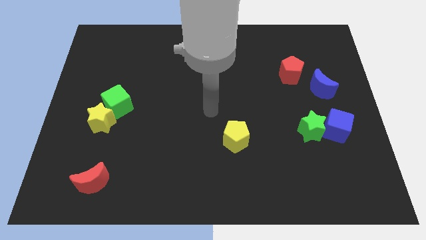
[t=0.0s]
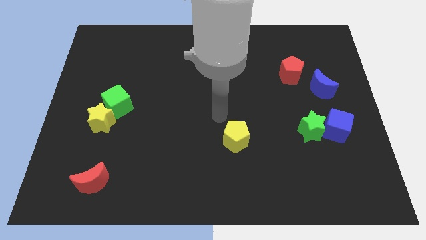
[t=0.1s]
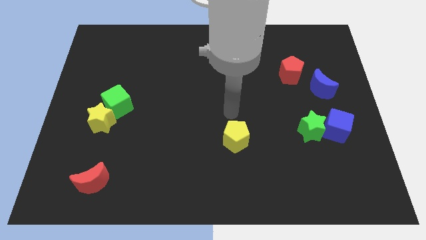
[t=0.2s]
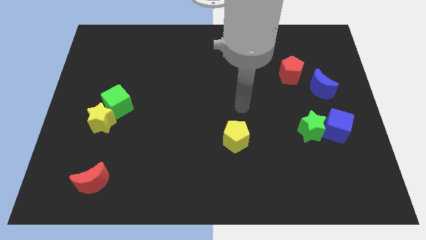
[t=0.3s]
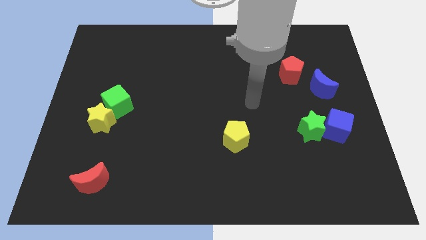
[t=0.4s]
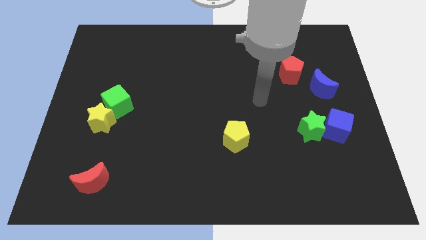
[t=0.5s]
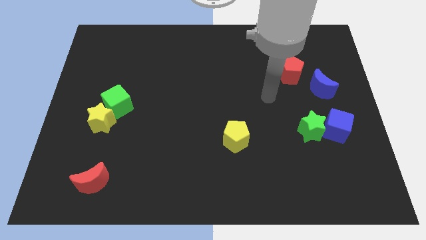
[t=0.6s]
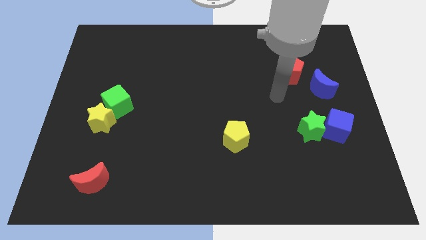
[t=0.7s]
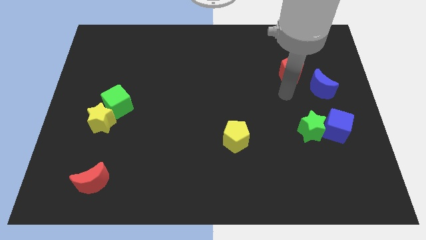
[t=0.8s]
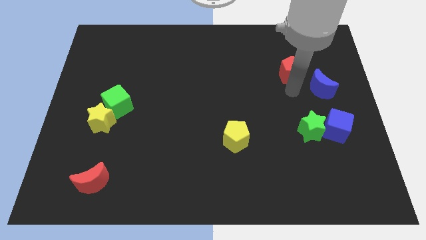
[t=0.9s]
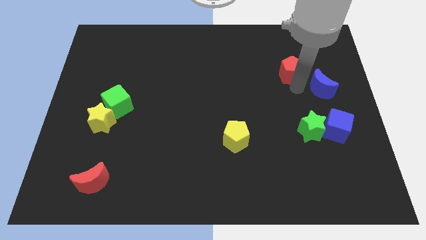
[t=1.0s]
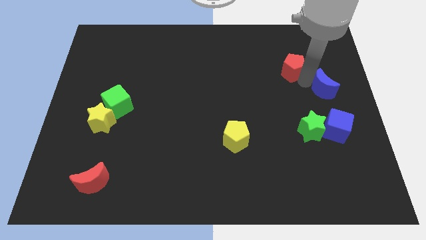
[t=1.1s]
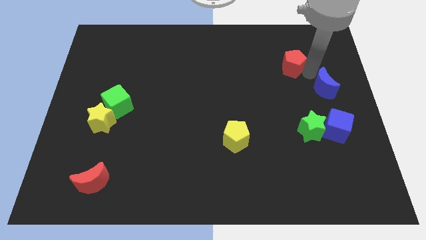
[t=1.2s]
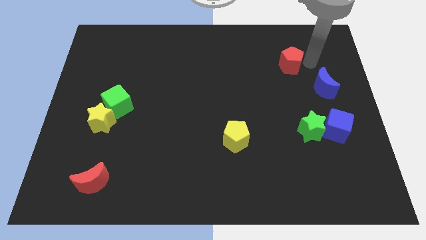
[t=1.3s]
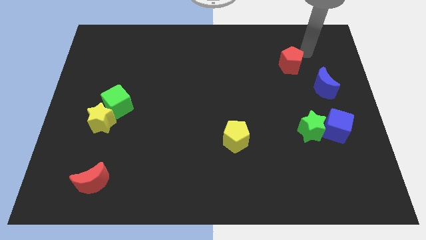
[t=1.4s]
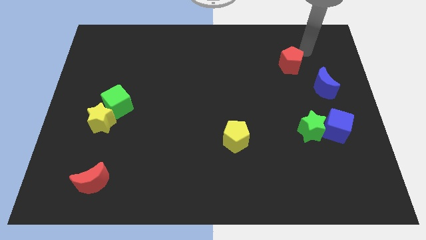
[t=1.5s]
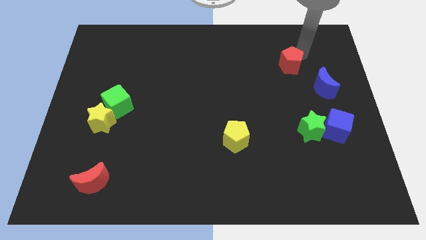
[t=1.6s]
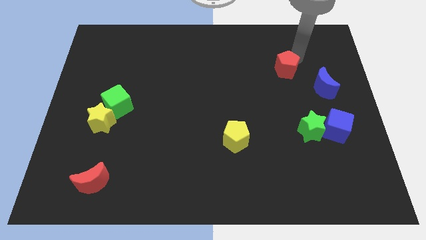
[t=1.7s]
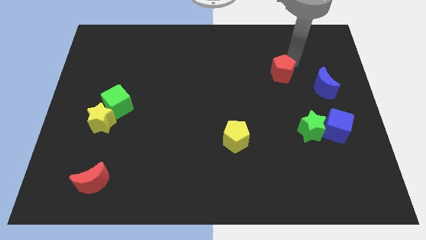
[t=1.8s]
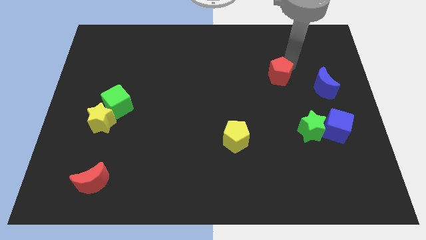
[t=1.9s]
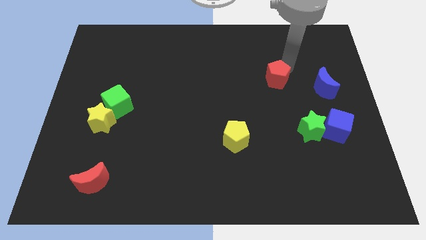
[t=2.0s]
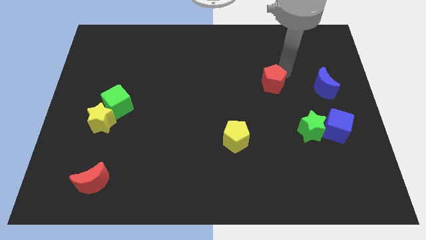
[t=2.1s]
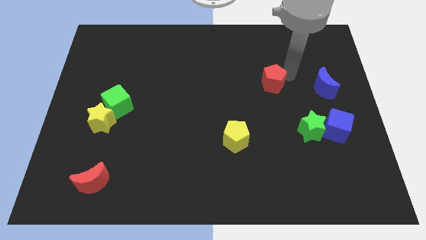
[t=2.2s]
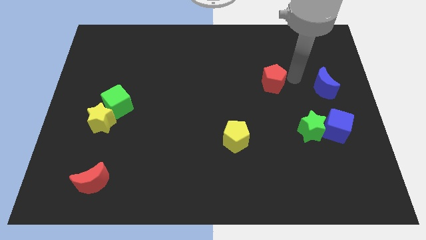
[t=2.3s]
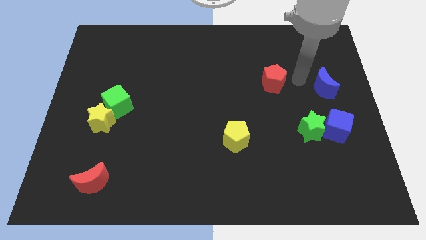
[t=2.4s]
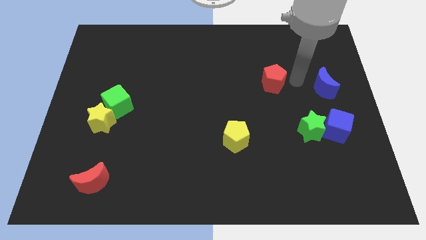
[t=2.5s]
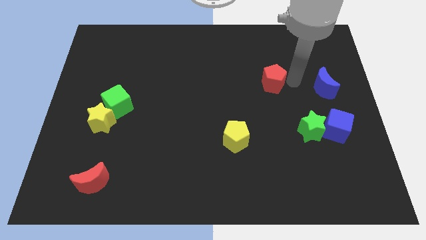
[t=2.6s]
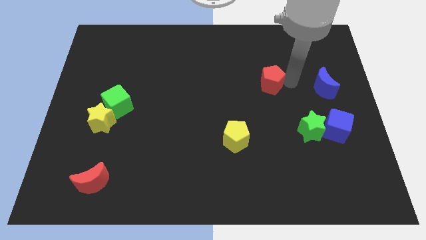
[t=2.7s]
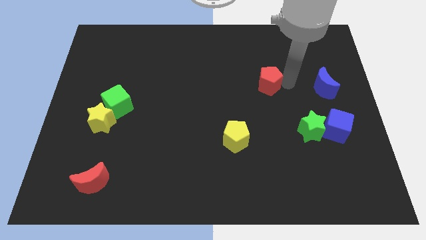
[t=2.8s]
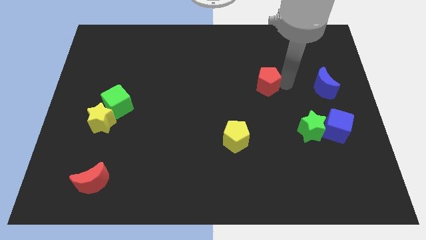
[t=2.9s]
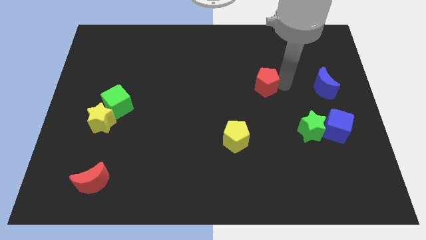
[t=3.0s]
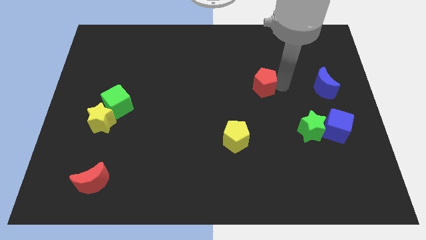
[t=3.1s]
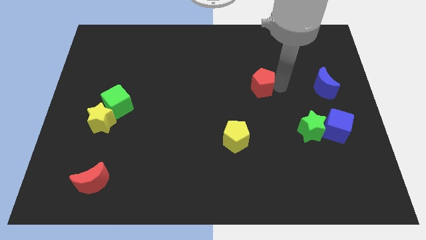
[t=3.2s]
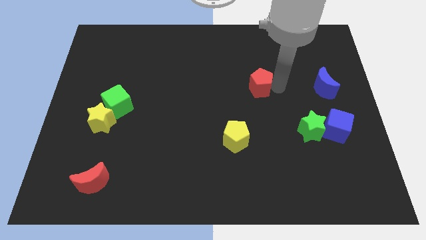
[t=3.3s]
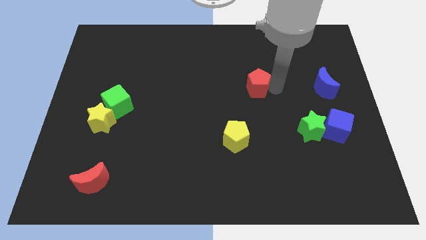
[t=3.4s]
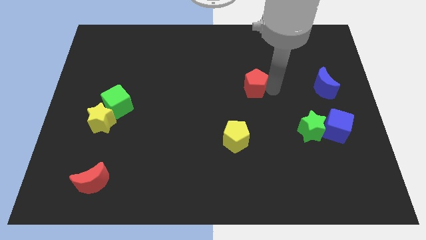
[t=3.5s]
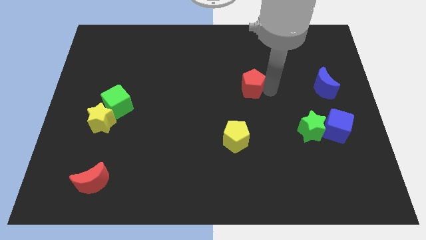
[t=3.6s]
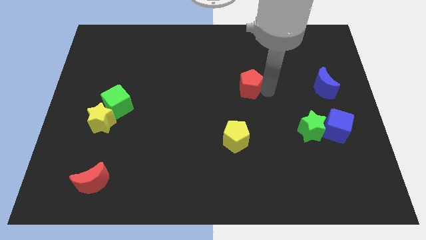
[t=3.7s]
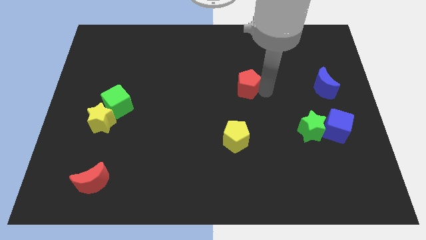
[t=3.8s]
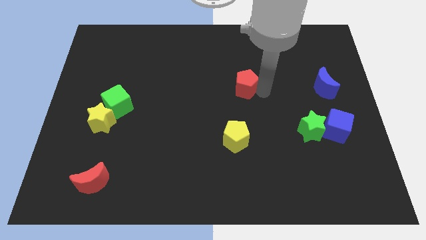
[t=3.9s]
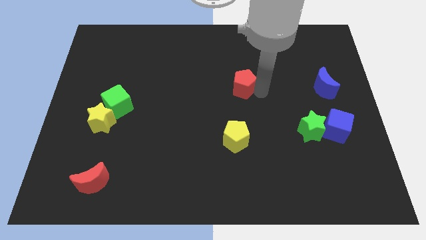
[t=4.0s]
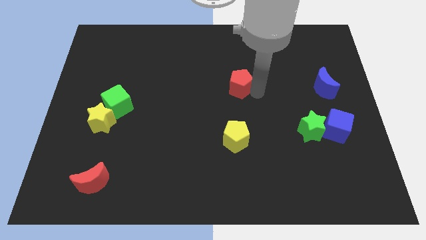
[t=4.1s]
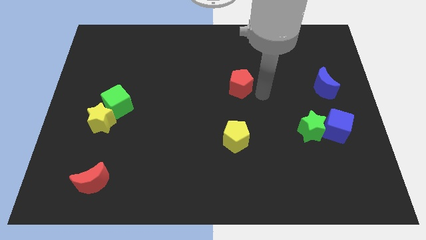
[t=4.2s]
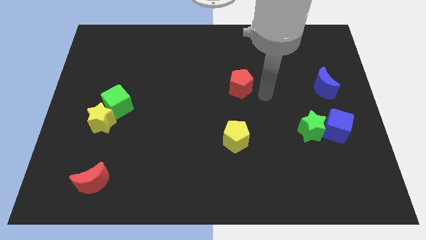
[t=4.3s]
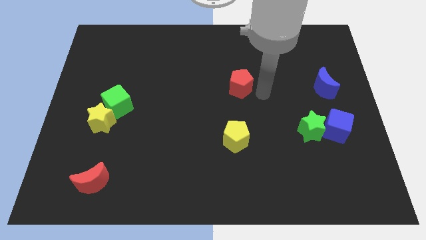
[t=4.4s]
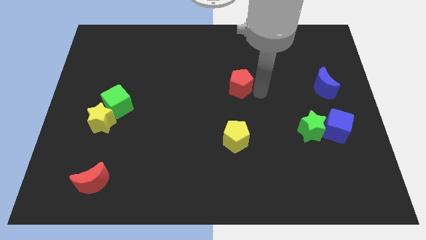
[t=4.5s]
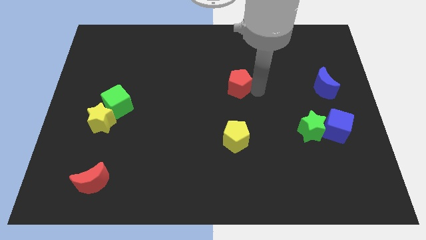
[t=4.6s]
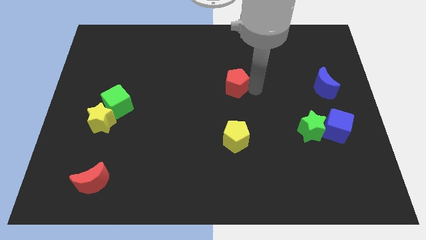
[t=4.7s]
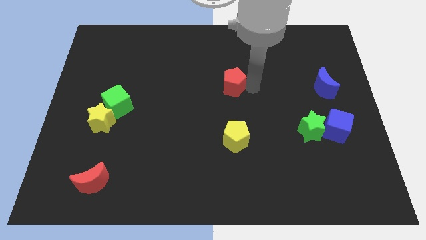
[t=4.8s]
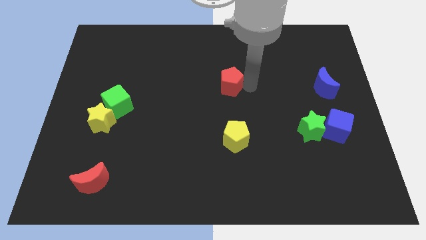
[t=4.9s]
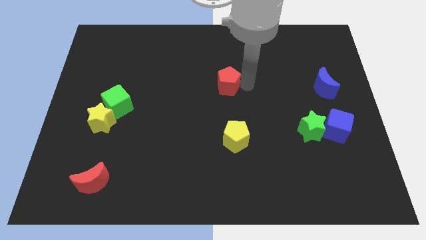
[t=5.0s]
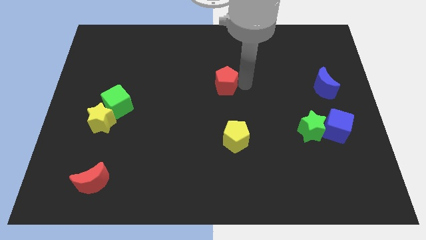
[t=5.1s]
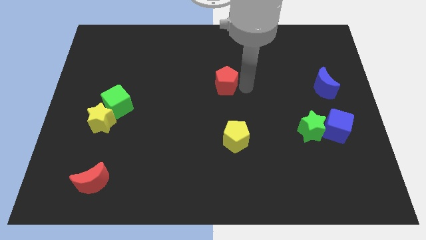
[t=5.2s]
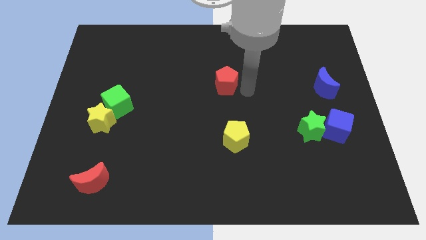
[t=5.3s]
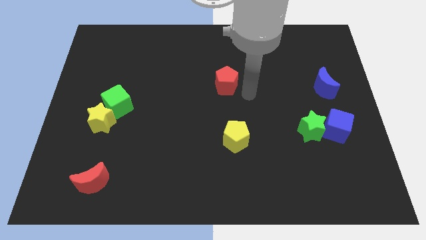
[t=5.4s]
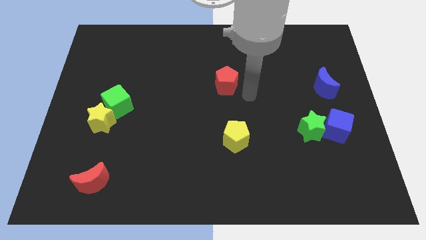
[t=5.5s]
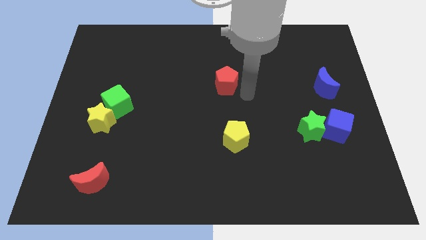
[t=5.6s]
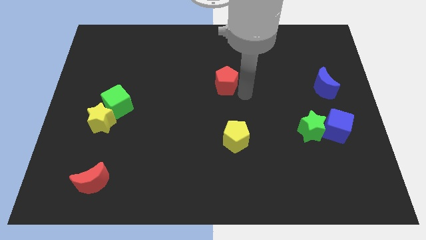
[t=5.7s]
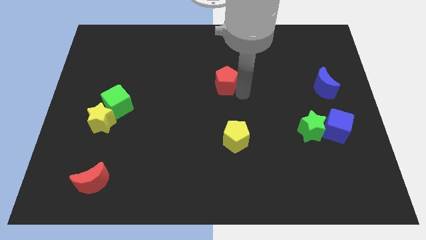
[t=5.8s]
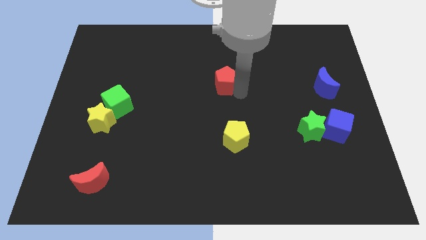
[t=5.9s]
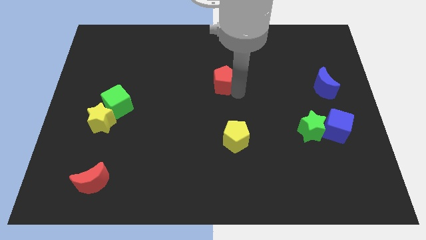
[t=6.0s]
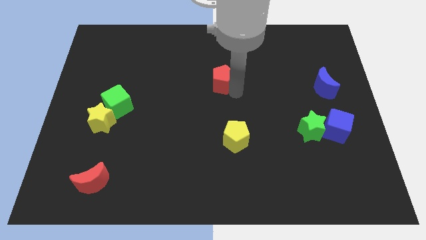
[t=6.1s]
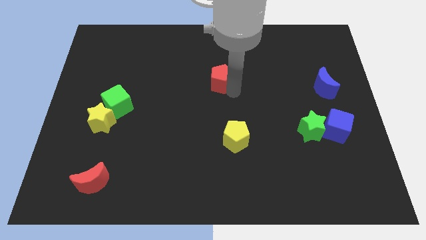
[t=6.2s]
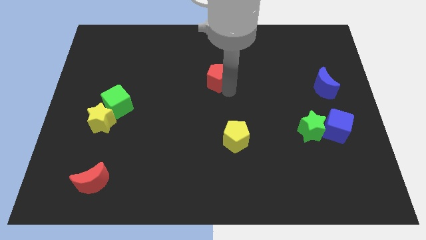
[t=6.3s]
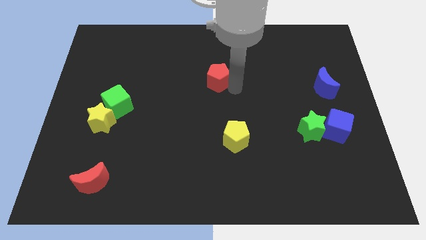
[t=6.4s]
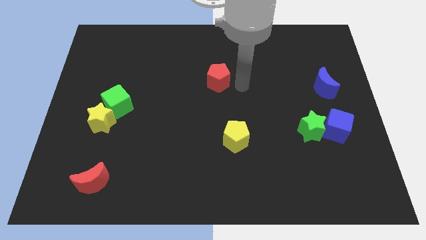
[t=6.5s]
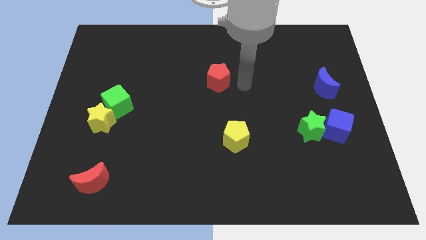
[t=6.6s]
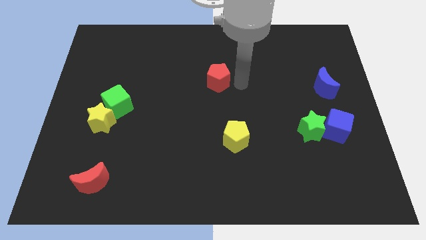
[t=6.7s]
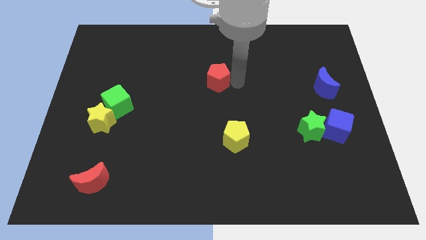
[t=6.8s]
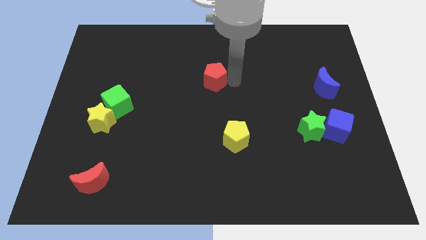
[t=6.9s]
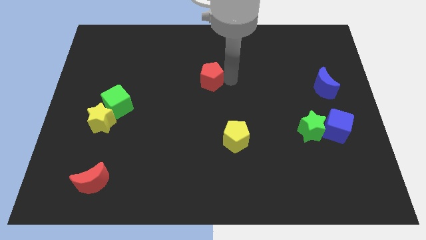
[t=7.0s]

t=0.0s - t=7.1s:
slide the red pentagon left

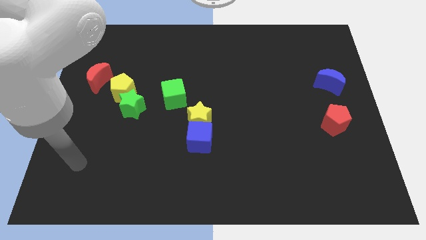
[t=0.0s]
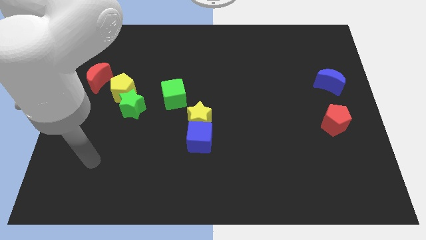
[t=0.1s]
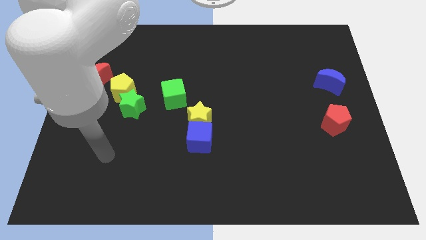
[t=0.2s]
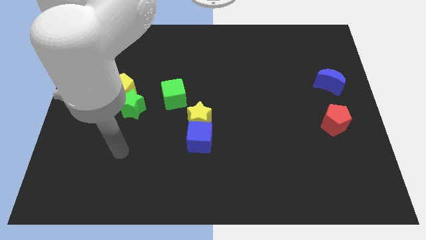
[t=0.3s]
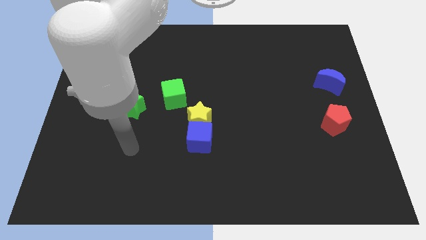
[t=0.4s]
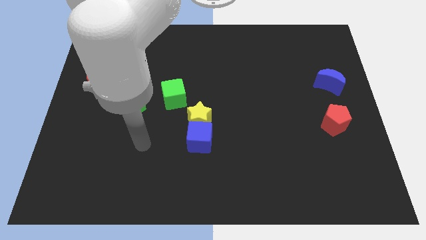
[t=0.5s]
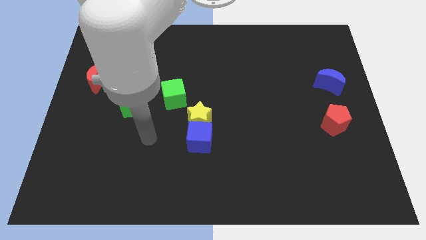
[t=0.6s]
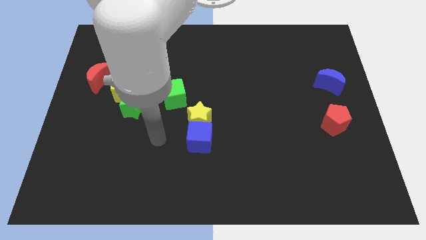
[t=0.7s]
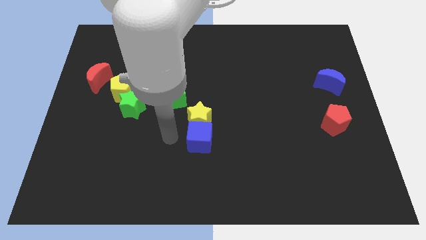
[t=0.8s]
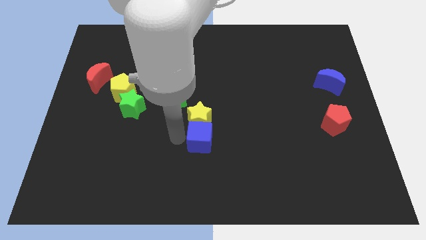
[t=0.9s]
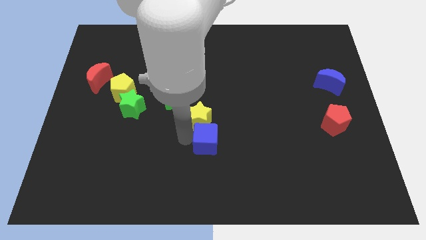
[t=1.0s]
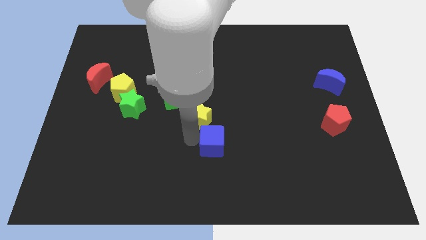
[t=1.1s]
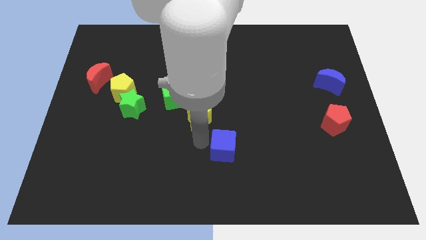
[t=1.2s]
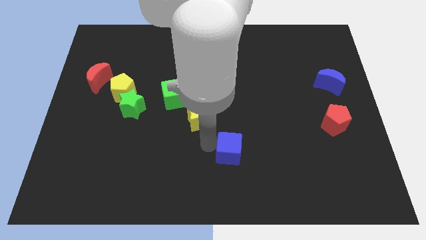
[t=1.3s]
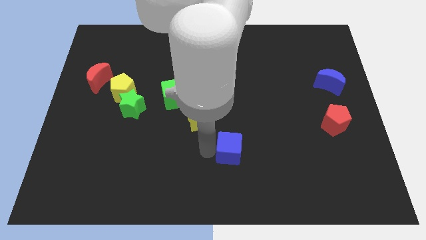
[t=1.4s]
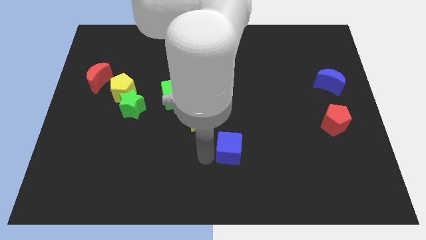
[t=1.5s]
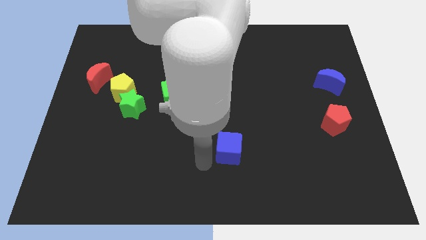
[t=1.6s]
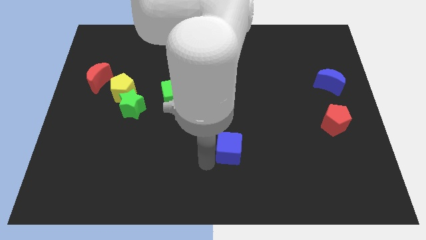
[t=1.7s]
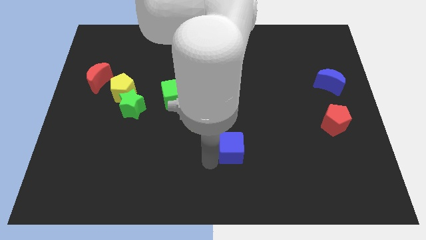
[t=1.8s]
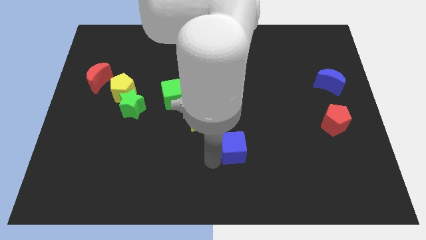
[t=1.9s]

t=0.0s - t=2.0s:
push the blue cube somewhat right
